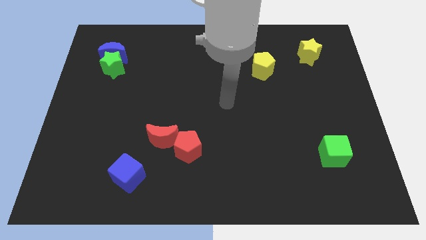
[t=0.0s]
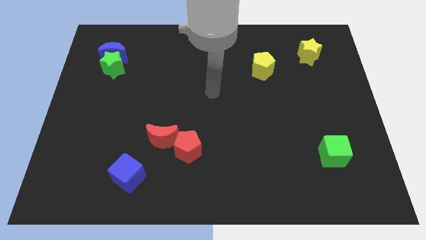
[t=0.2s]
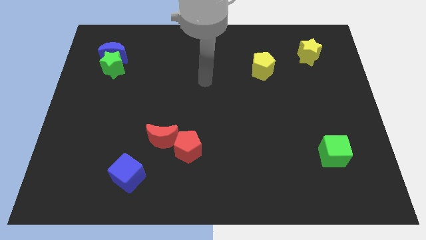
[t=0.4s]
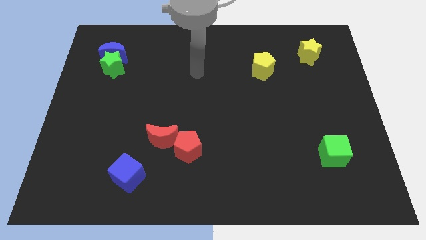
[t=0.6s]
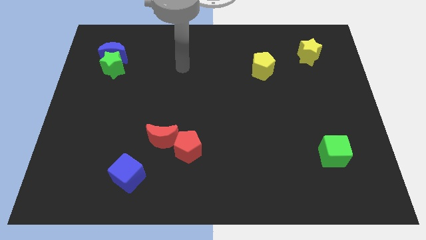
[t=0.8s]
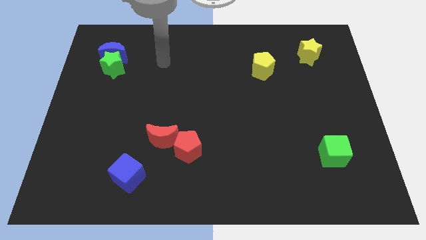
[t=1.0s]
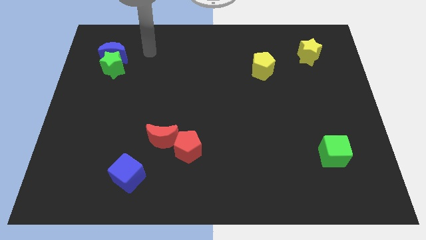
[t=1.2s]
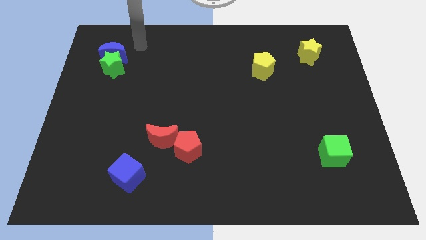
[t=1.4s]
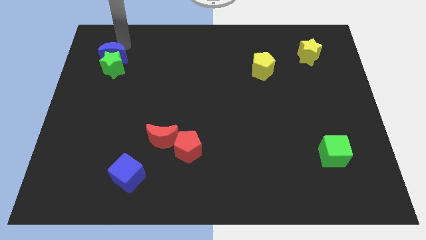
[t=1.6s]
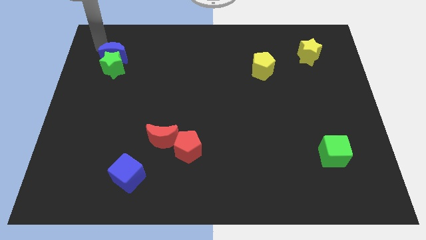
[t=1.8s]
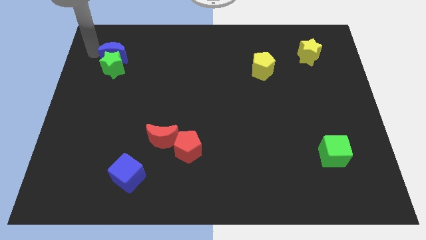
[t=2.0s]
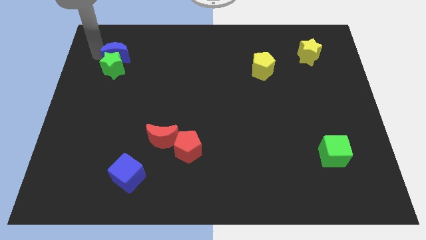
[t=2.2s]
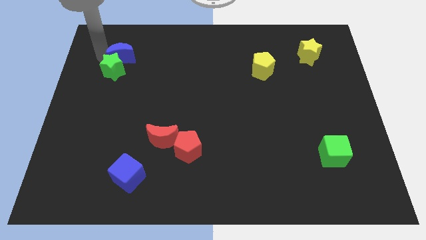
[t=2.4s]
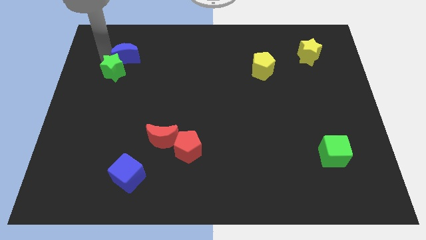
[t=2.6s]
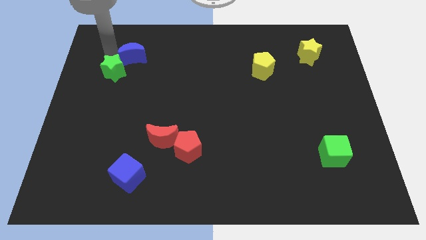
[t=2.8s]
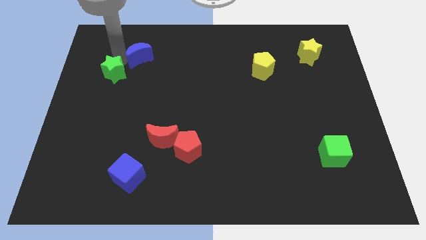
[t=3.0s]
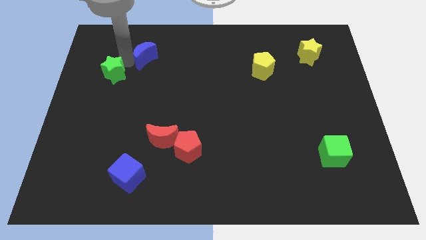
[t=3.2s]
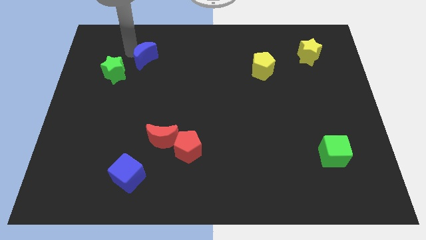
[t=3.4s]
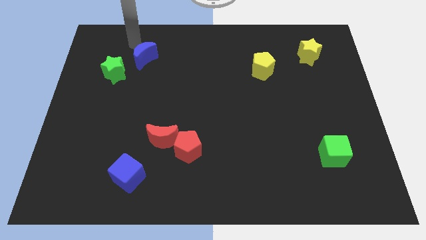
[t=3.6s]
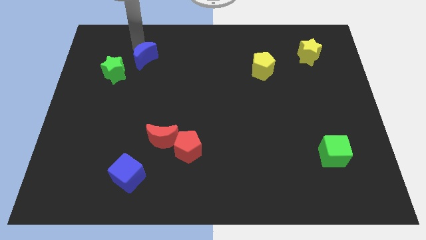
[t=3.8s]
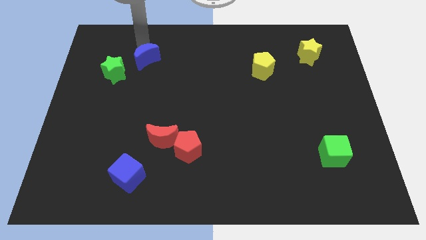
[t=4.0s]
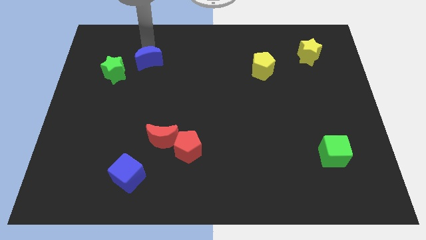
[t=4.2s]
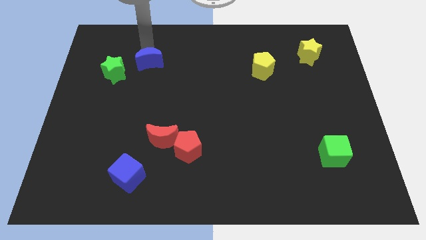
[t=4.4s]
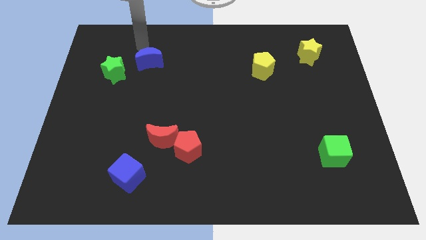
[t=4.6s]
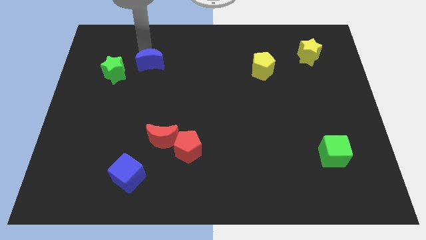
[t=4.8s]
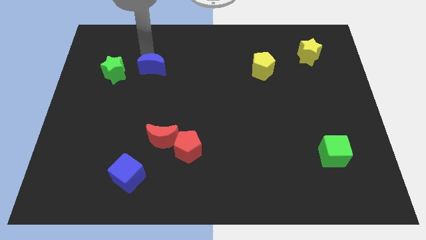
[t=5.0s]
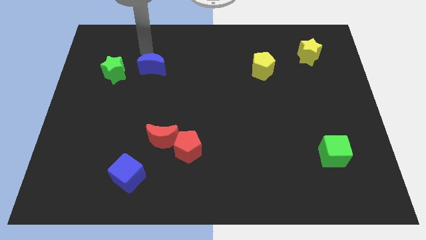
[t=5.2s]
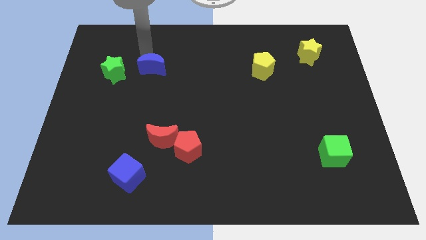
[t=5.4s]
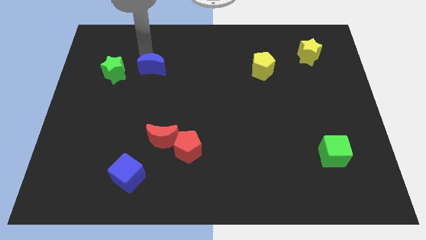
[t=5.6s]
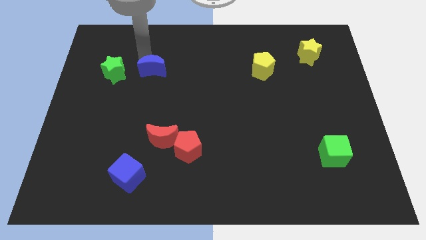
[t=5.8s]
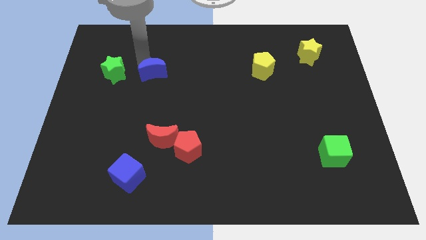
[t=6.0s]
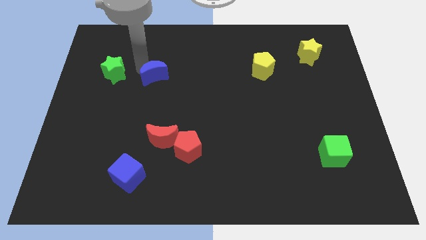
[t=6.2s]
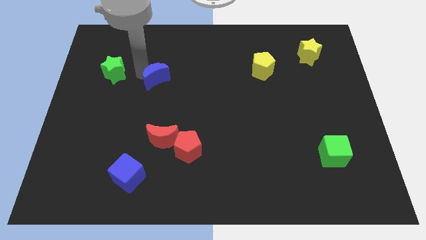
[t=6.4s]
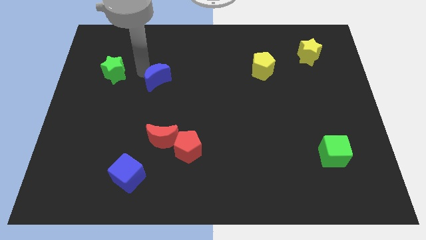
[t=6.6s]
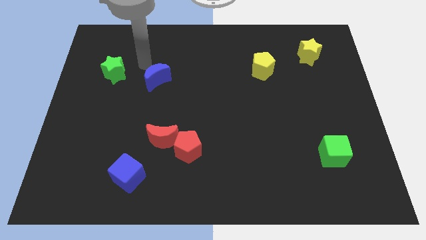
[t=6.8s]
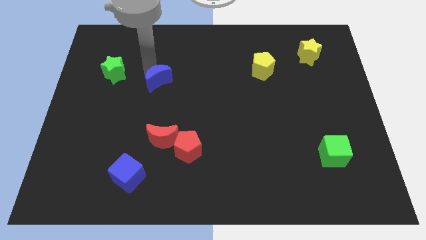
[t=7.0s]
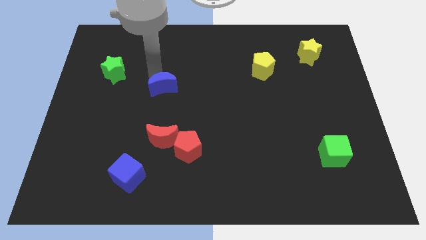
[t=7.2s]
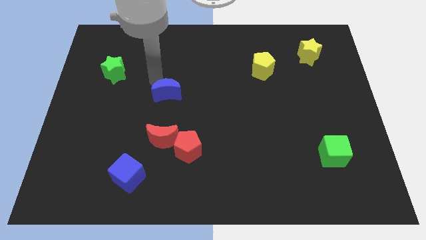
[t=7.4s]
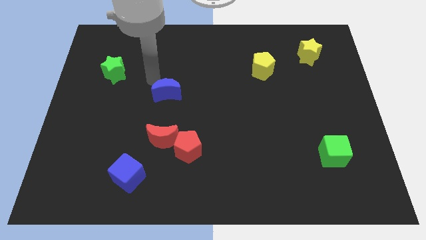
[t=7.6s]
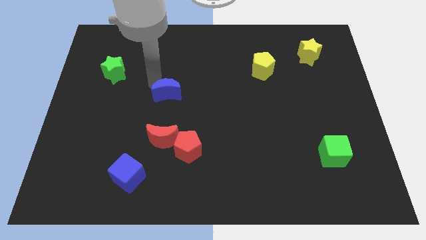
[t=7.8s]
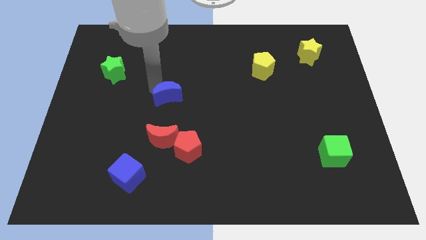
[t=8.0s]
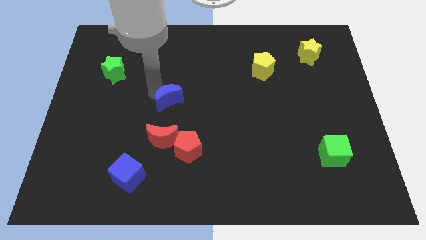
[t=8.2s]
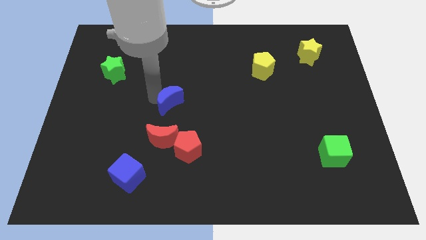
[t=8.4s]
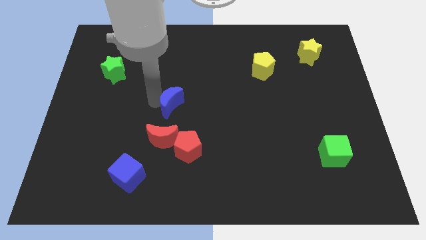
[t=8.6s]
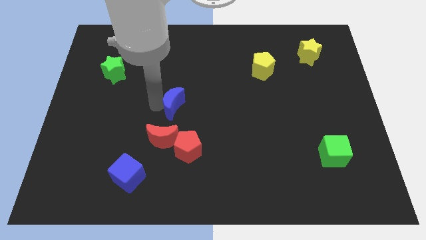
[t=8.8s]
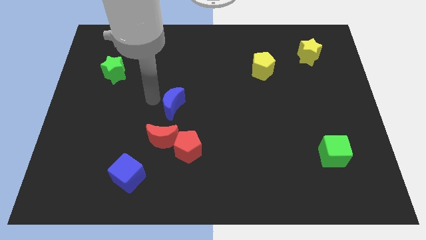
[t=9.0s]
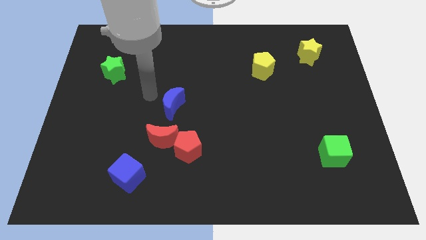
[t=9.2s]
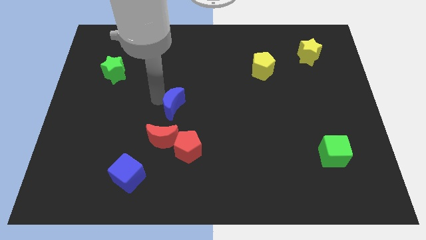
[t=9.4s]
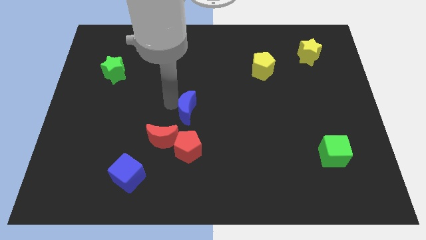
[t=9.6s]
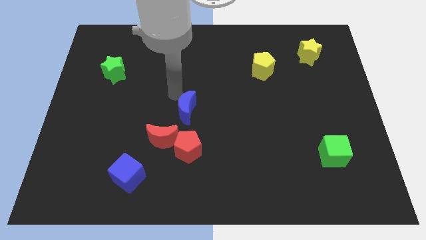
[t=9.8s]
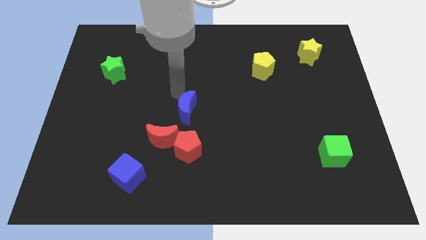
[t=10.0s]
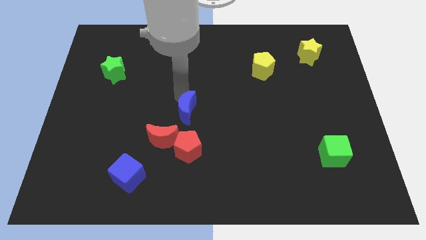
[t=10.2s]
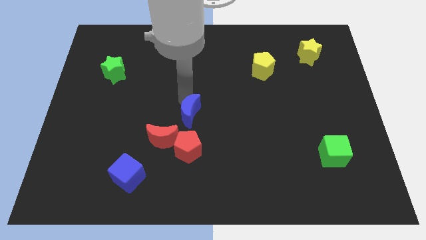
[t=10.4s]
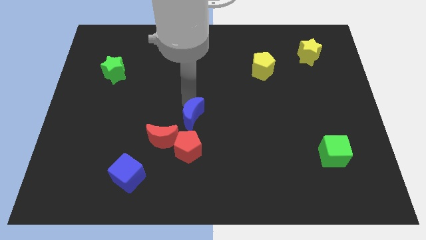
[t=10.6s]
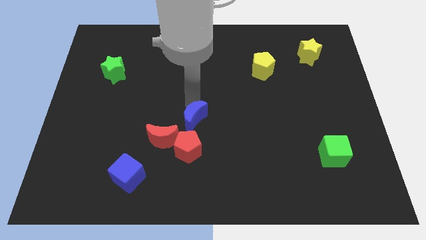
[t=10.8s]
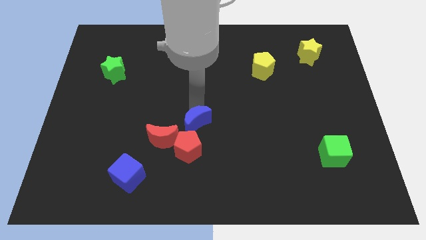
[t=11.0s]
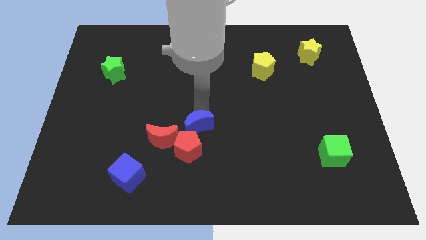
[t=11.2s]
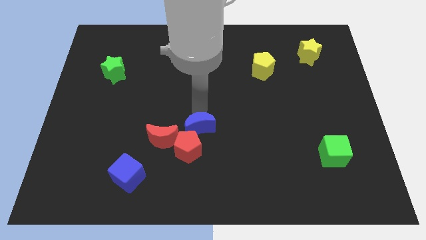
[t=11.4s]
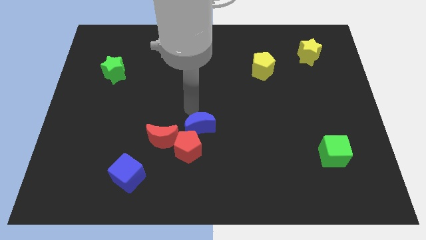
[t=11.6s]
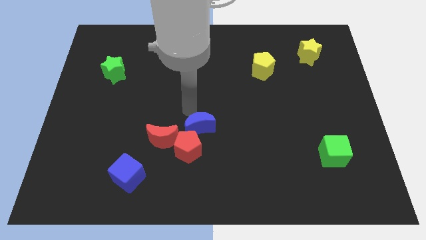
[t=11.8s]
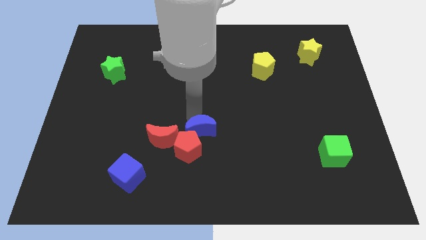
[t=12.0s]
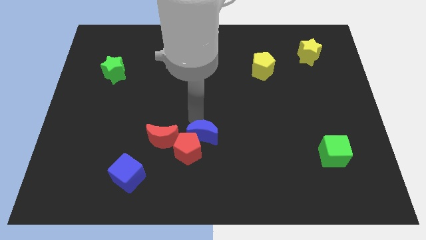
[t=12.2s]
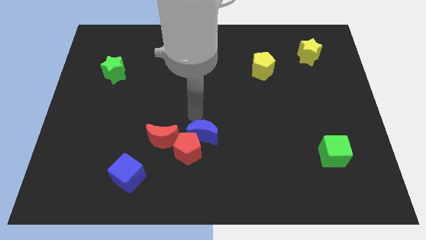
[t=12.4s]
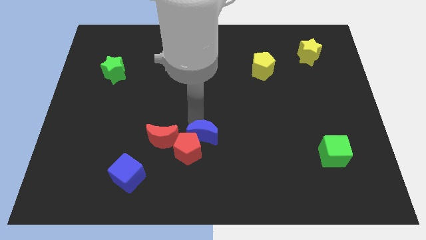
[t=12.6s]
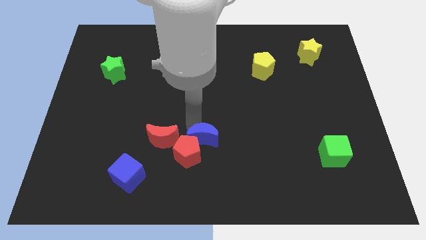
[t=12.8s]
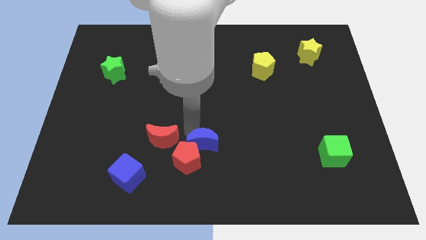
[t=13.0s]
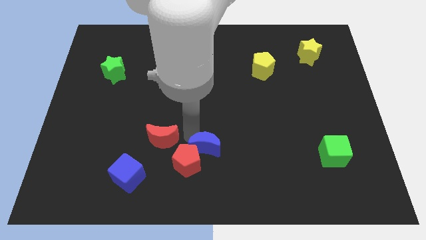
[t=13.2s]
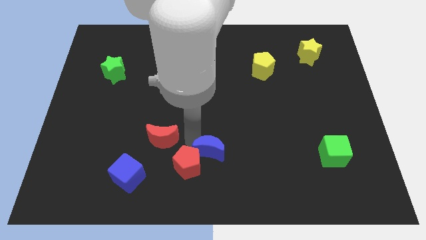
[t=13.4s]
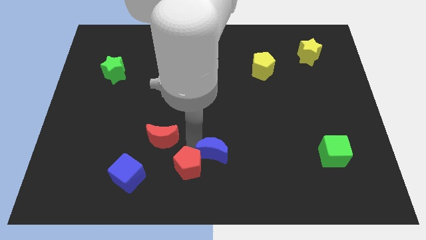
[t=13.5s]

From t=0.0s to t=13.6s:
slide the blue moon to the bottom side

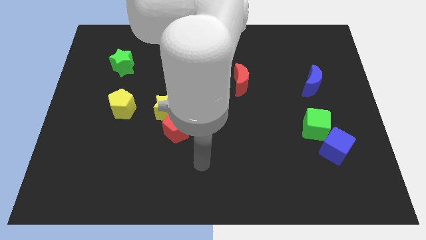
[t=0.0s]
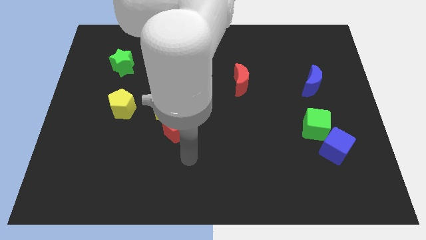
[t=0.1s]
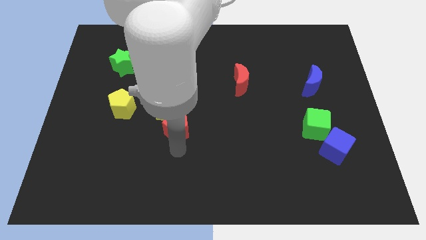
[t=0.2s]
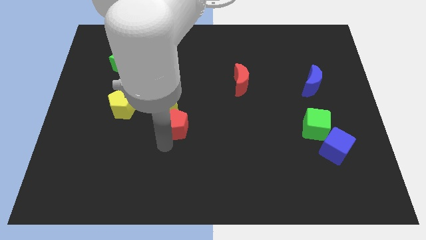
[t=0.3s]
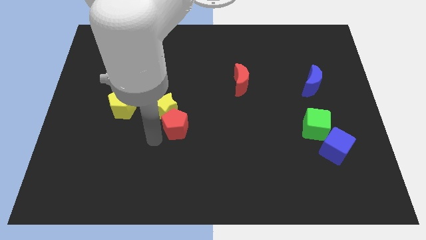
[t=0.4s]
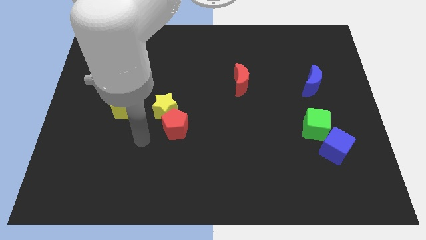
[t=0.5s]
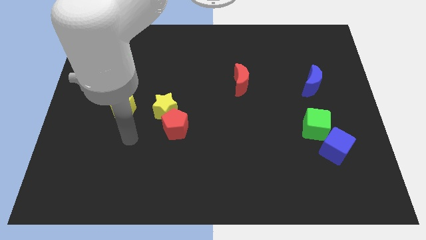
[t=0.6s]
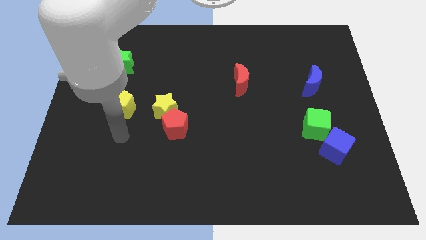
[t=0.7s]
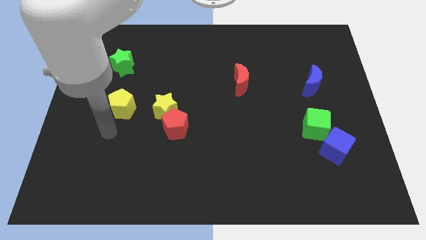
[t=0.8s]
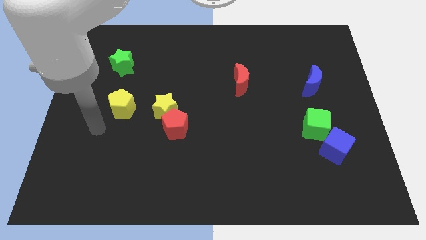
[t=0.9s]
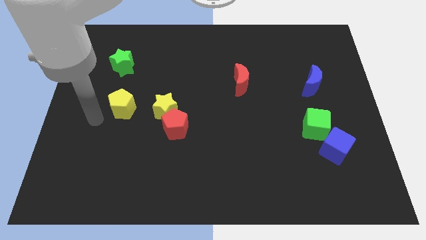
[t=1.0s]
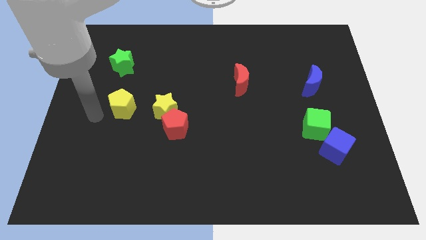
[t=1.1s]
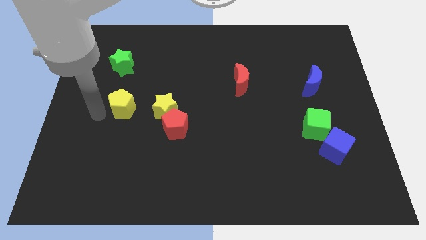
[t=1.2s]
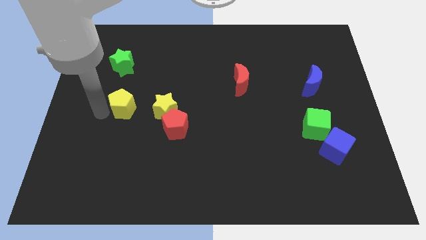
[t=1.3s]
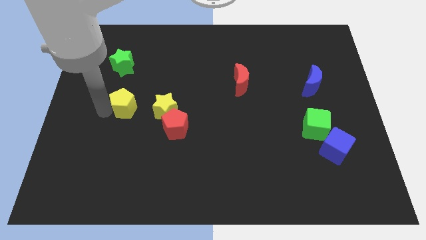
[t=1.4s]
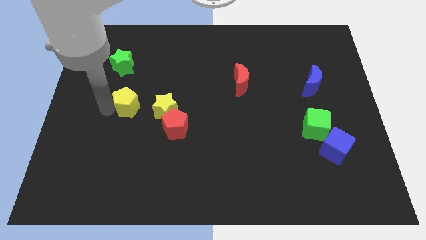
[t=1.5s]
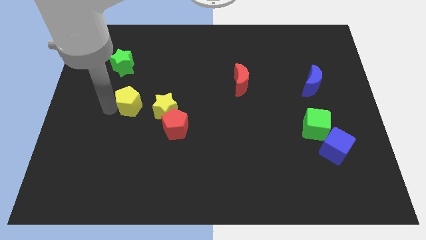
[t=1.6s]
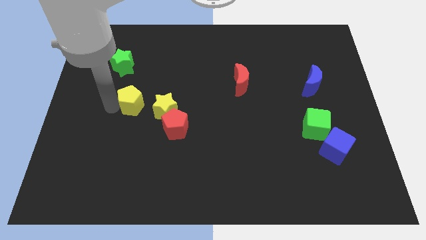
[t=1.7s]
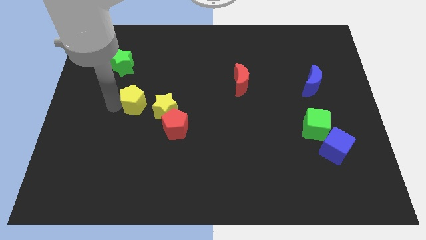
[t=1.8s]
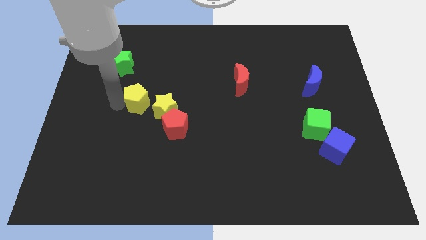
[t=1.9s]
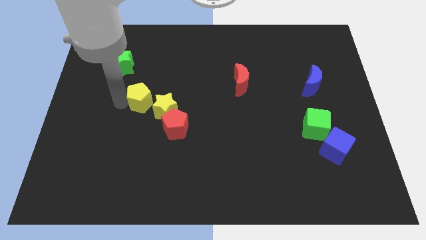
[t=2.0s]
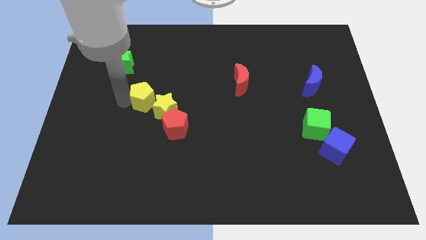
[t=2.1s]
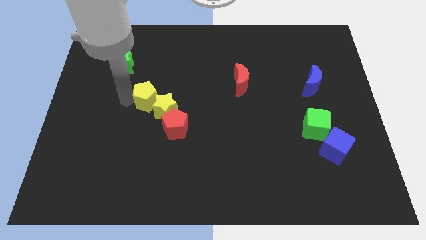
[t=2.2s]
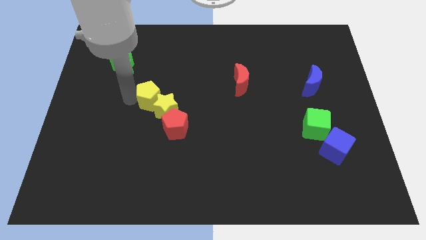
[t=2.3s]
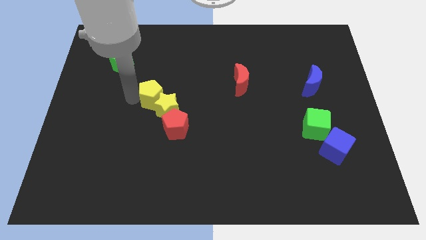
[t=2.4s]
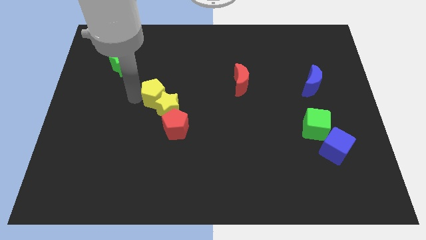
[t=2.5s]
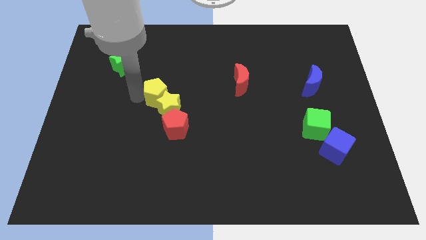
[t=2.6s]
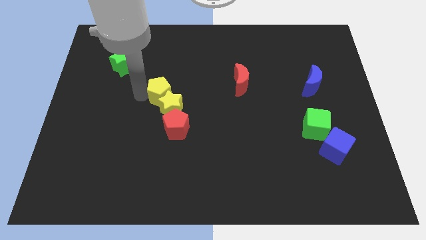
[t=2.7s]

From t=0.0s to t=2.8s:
slide the yellow pentagon to the center of the board
